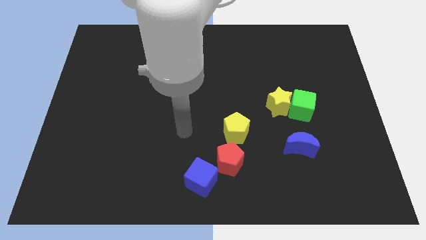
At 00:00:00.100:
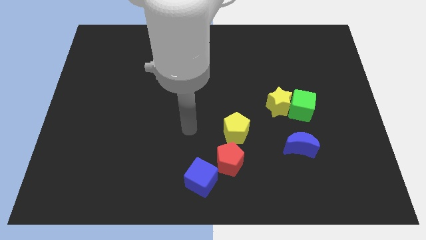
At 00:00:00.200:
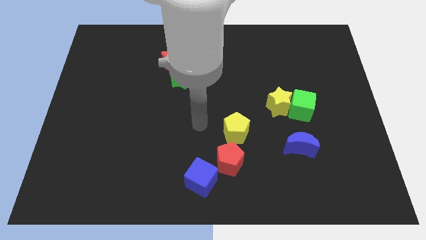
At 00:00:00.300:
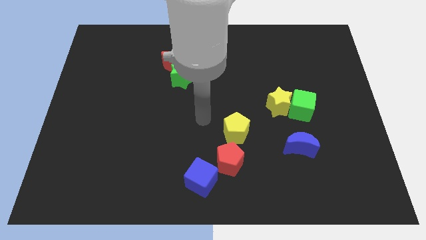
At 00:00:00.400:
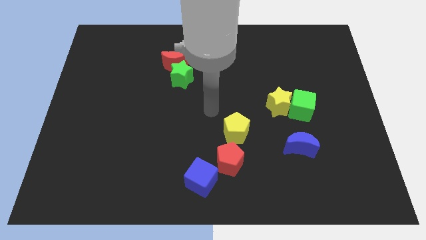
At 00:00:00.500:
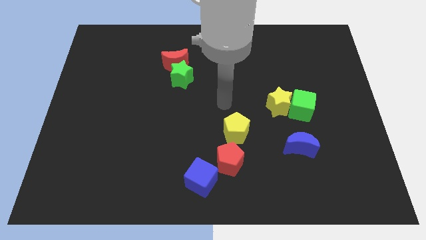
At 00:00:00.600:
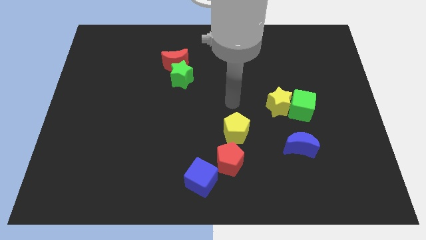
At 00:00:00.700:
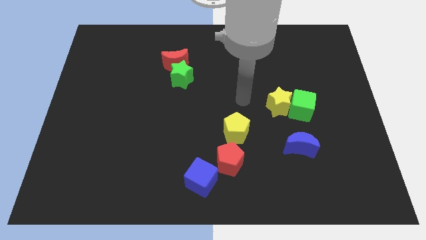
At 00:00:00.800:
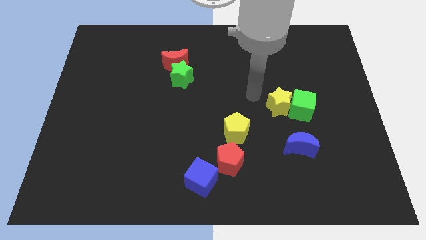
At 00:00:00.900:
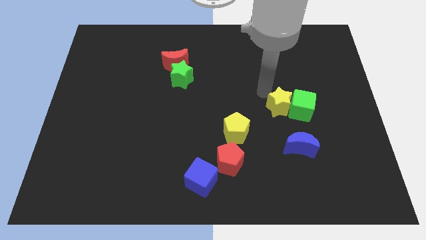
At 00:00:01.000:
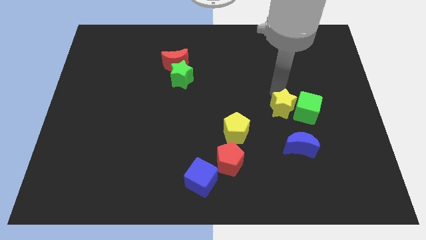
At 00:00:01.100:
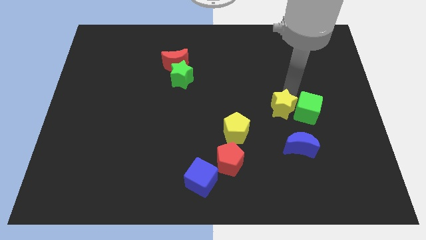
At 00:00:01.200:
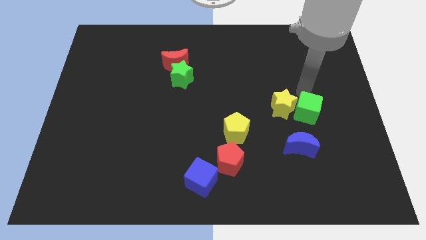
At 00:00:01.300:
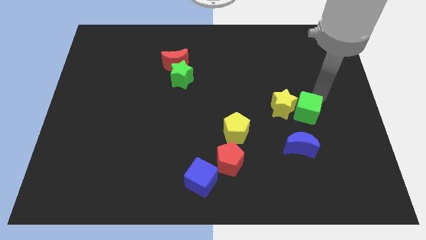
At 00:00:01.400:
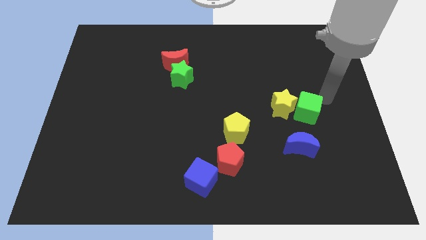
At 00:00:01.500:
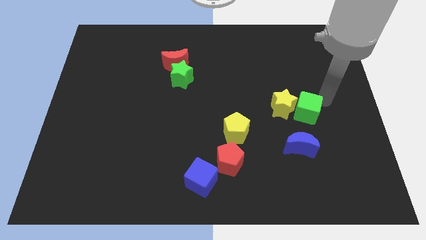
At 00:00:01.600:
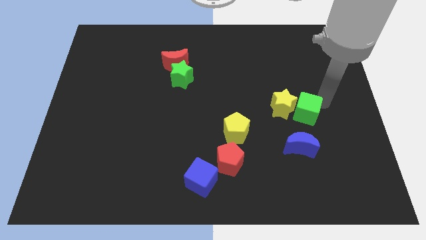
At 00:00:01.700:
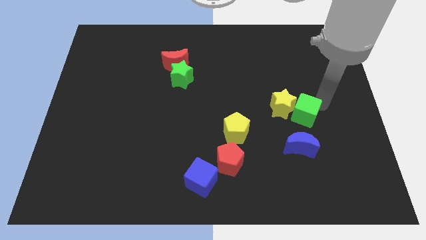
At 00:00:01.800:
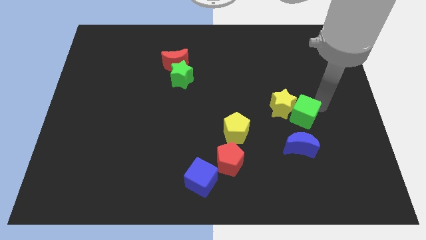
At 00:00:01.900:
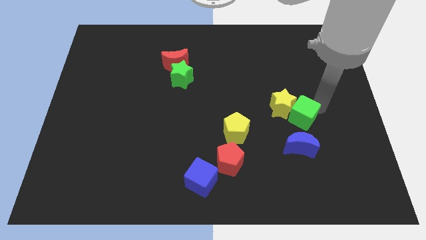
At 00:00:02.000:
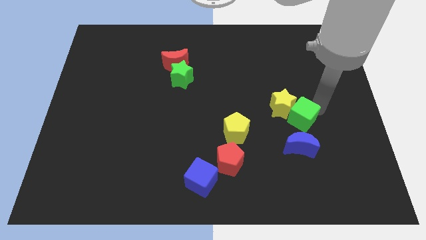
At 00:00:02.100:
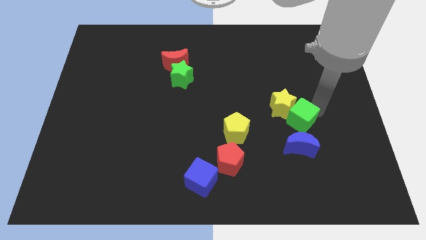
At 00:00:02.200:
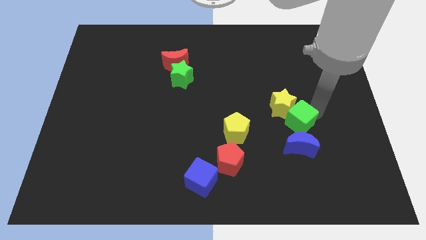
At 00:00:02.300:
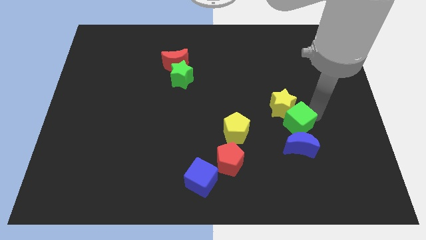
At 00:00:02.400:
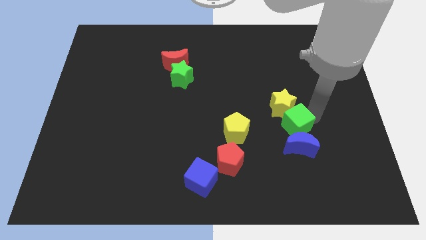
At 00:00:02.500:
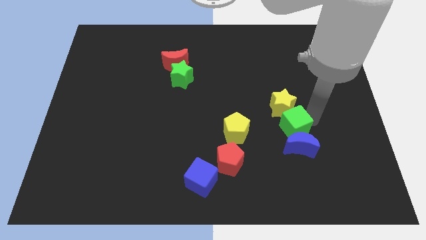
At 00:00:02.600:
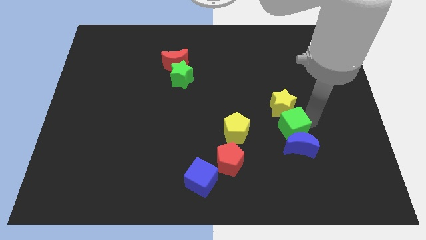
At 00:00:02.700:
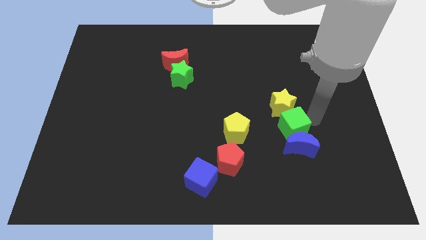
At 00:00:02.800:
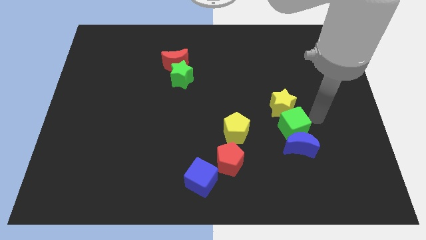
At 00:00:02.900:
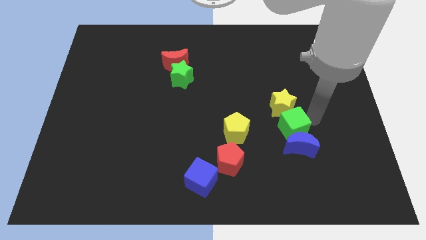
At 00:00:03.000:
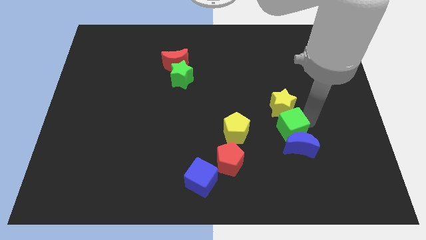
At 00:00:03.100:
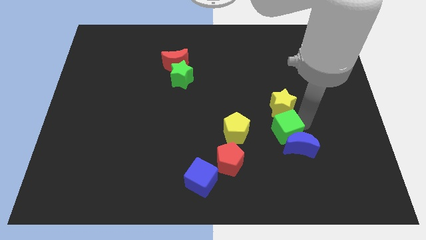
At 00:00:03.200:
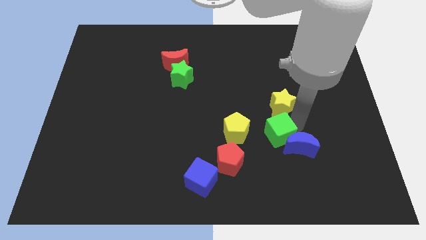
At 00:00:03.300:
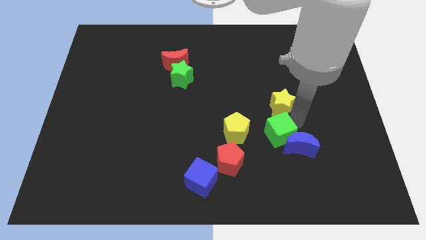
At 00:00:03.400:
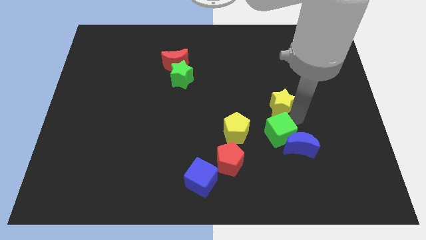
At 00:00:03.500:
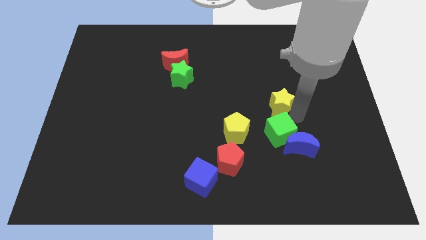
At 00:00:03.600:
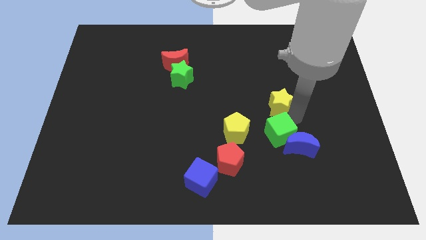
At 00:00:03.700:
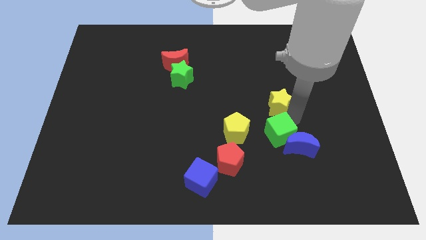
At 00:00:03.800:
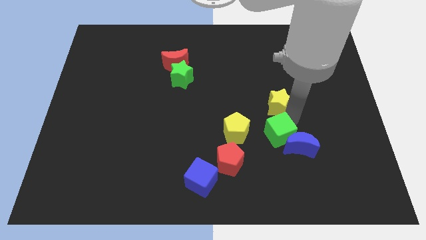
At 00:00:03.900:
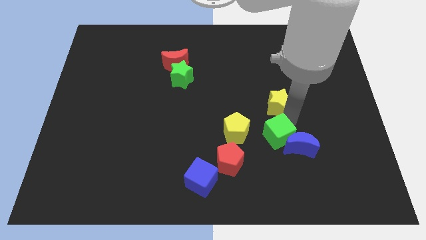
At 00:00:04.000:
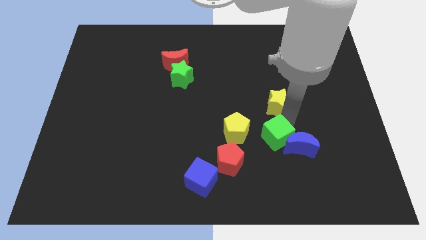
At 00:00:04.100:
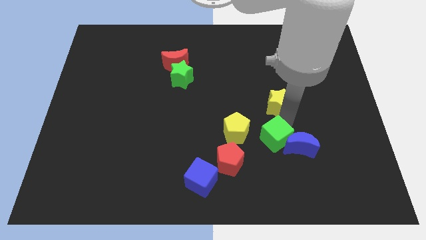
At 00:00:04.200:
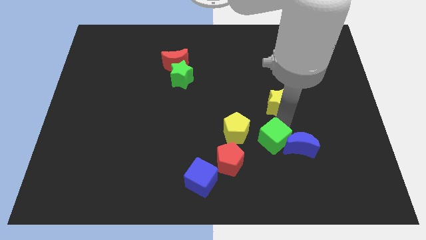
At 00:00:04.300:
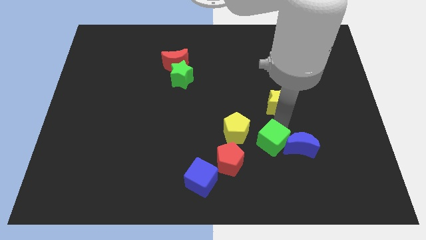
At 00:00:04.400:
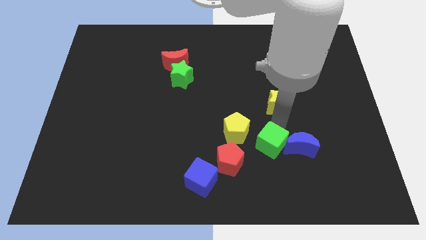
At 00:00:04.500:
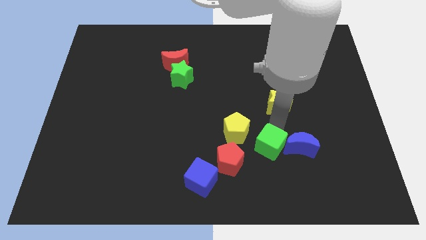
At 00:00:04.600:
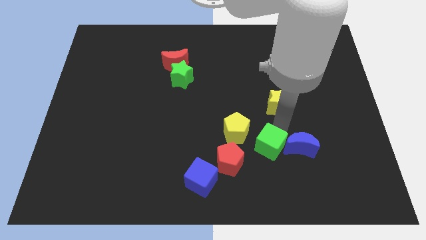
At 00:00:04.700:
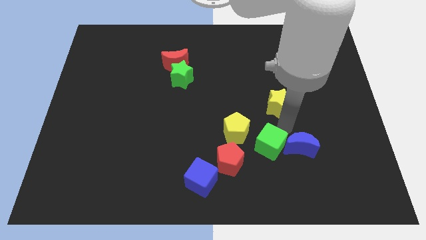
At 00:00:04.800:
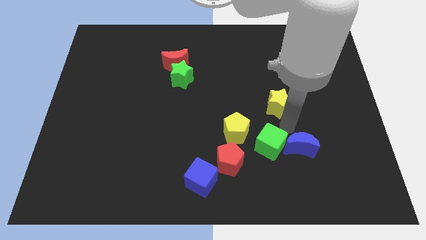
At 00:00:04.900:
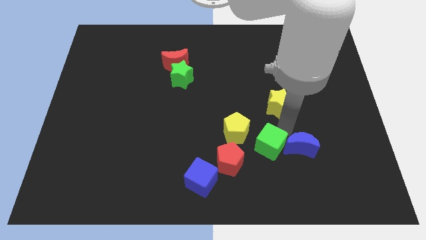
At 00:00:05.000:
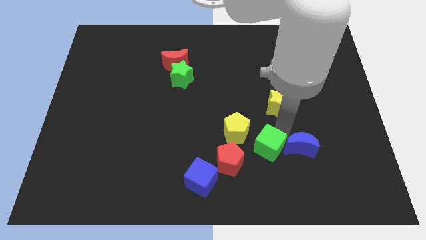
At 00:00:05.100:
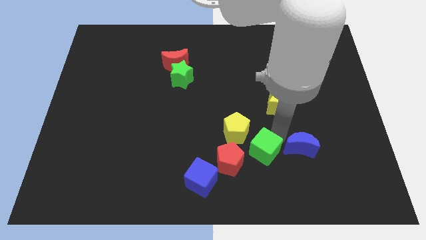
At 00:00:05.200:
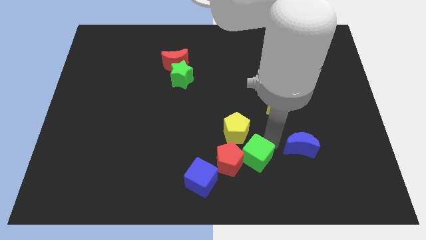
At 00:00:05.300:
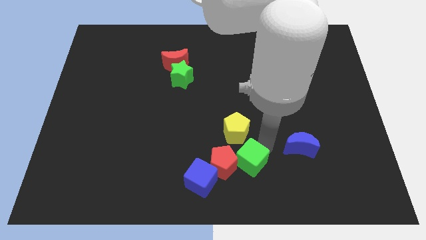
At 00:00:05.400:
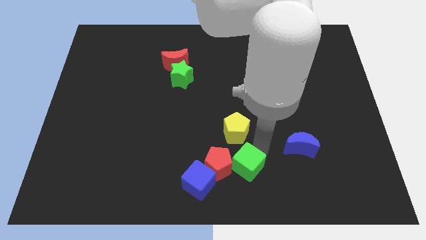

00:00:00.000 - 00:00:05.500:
put the green cube to the bottom
